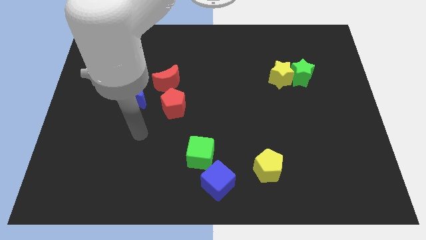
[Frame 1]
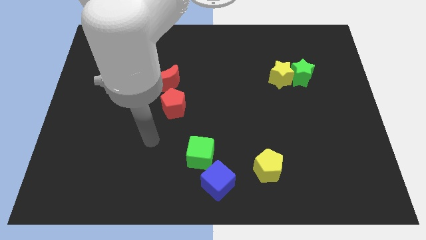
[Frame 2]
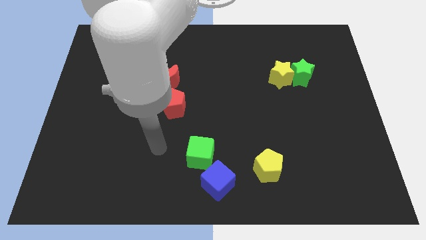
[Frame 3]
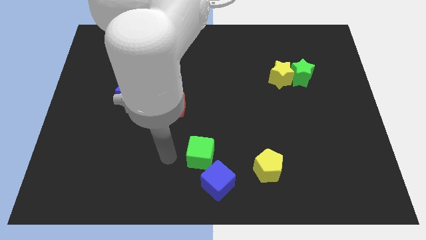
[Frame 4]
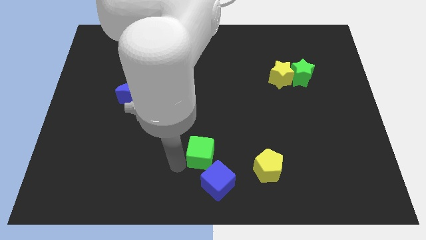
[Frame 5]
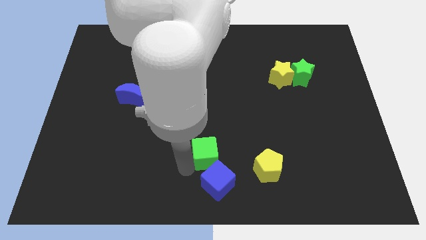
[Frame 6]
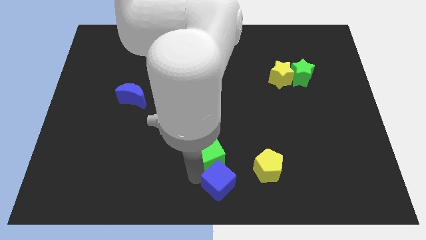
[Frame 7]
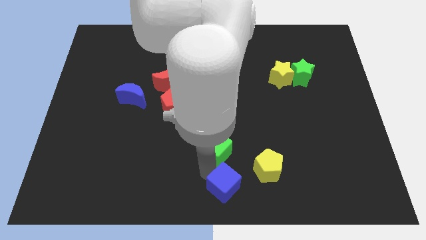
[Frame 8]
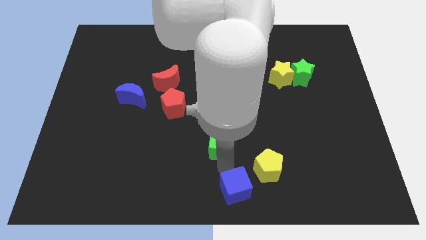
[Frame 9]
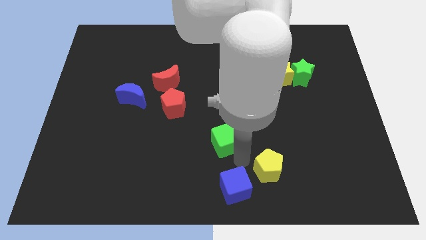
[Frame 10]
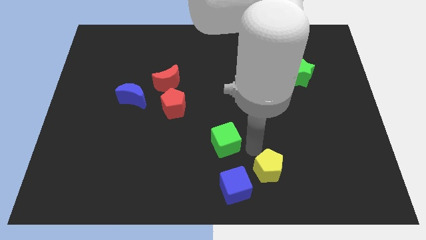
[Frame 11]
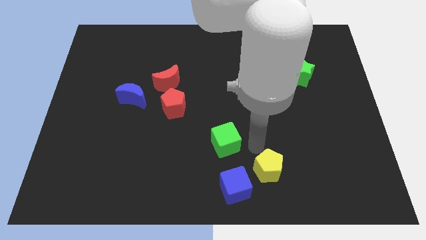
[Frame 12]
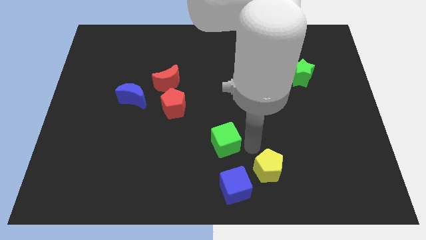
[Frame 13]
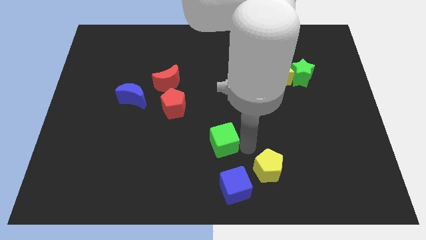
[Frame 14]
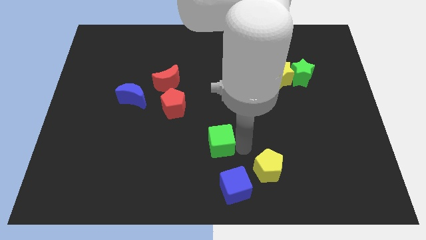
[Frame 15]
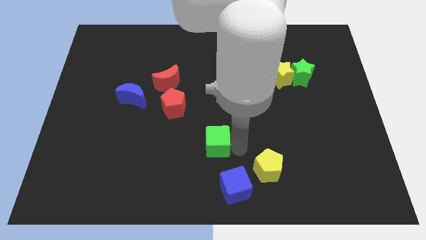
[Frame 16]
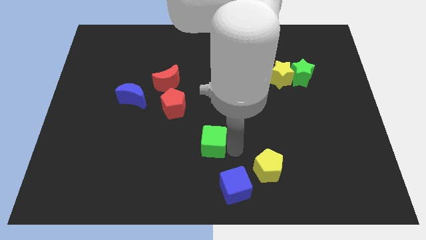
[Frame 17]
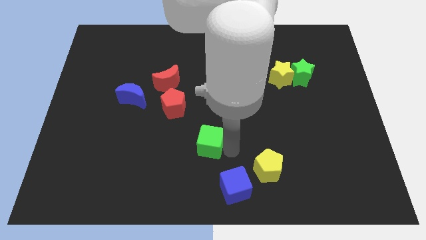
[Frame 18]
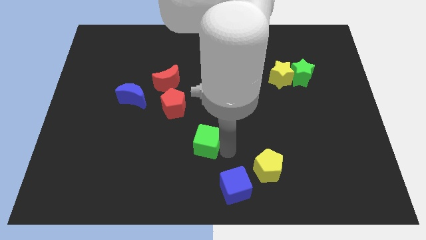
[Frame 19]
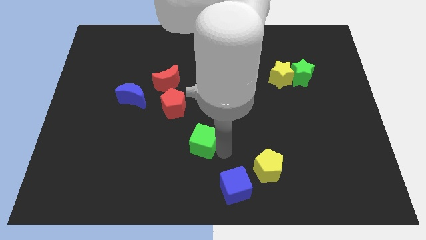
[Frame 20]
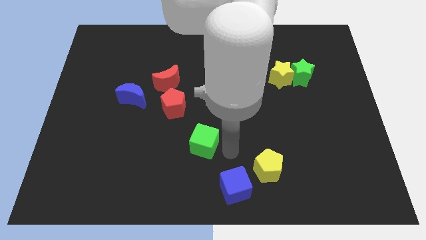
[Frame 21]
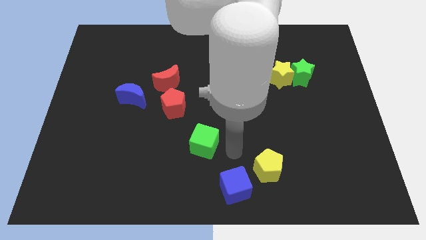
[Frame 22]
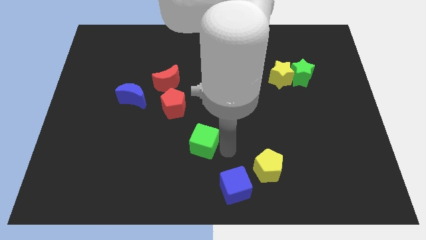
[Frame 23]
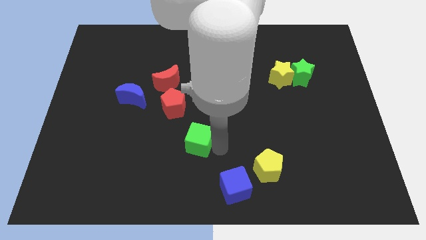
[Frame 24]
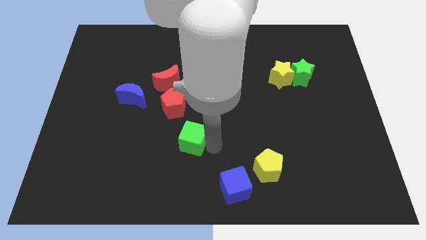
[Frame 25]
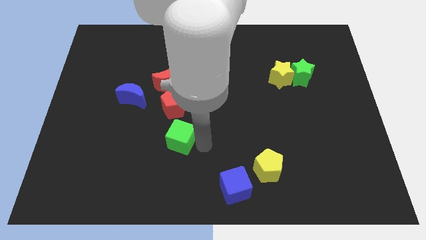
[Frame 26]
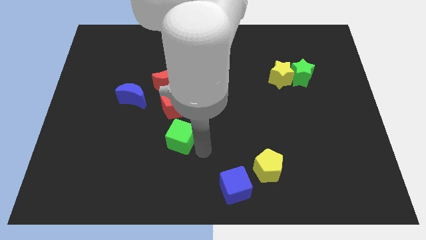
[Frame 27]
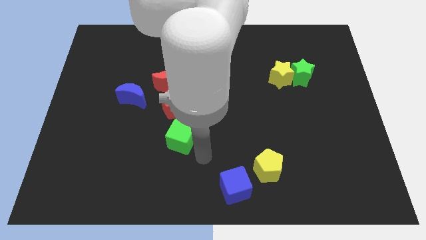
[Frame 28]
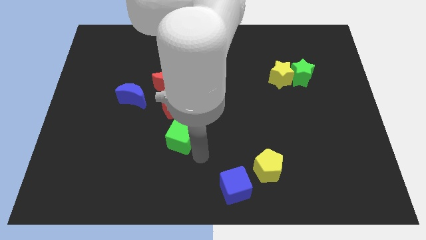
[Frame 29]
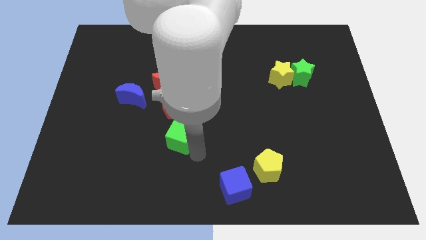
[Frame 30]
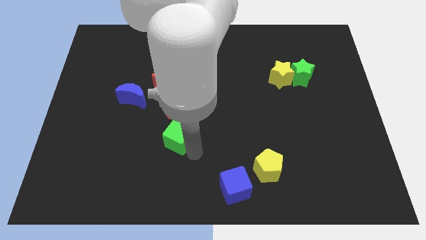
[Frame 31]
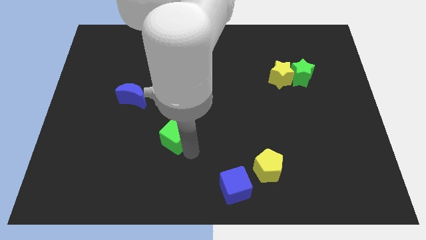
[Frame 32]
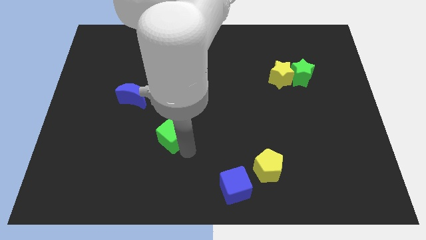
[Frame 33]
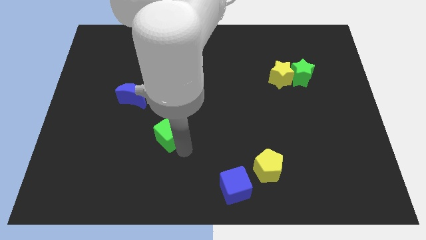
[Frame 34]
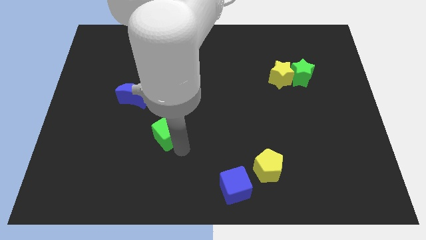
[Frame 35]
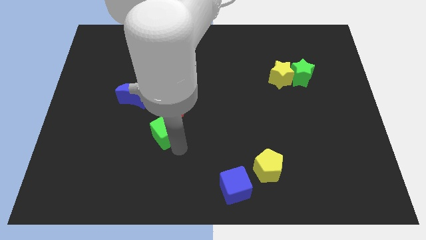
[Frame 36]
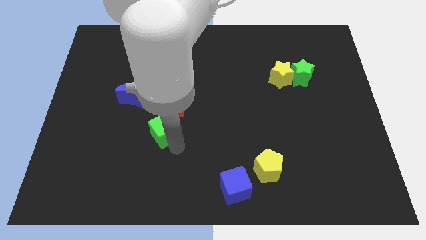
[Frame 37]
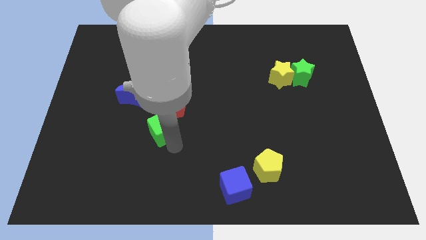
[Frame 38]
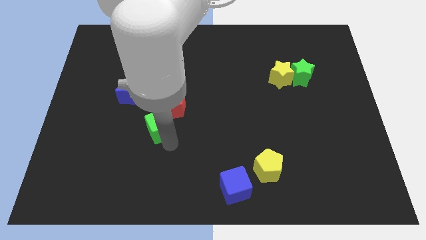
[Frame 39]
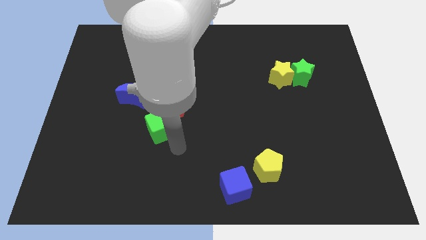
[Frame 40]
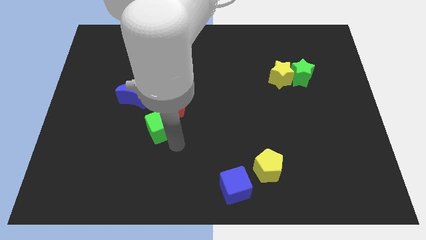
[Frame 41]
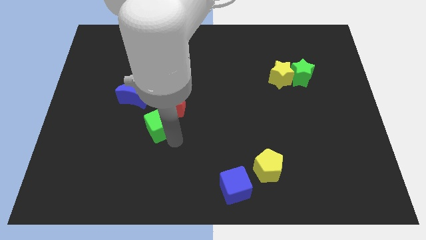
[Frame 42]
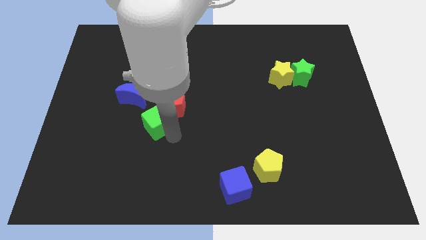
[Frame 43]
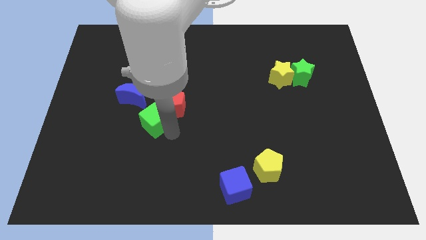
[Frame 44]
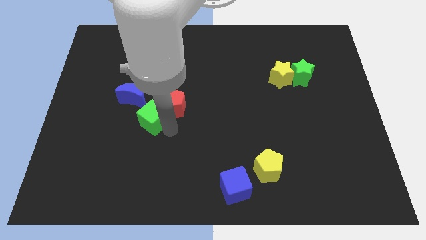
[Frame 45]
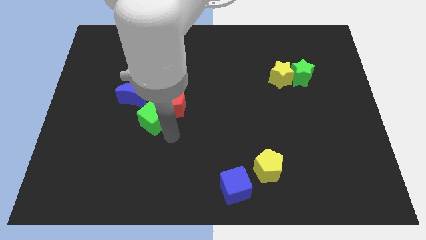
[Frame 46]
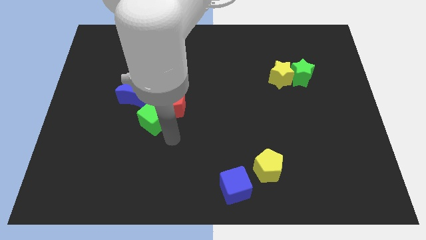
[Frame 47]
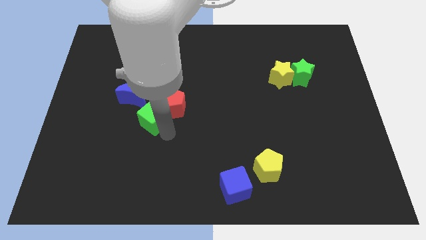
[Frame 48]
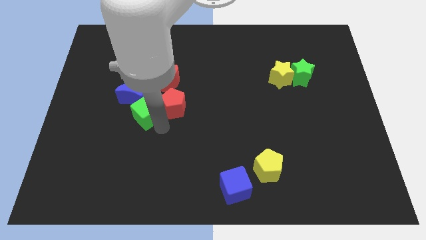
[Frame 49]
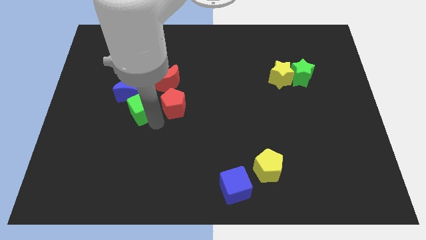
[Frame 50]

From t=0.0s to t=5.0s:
push the green cube to the blue moon

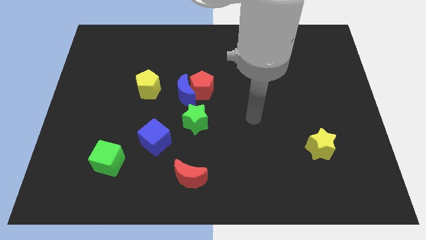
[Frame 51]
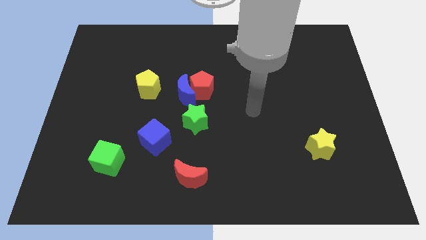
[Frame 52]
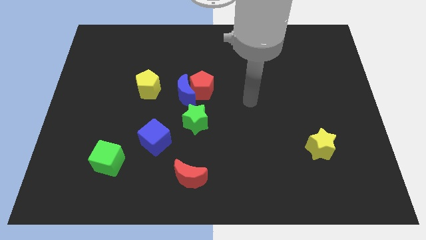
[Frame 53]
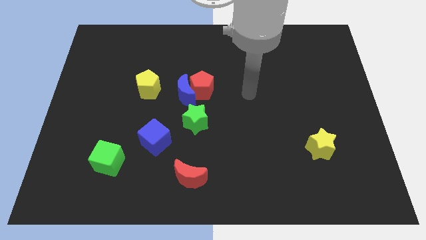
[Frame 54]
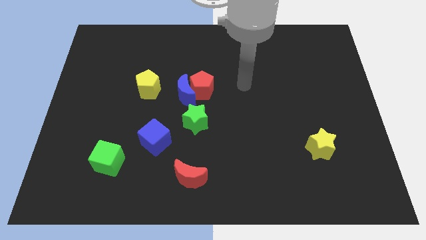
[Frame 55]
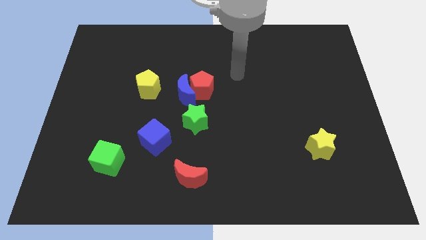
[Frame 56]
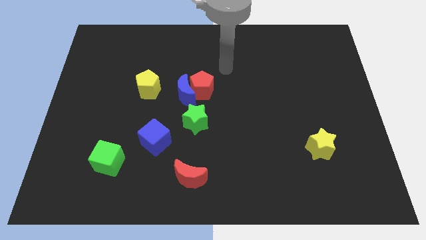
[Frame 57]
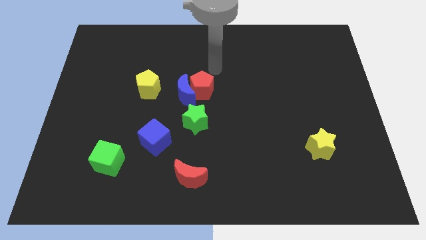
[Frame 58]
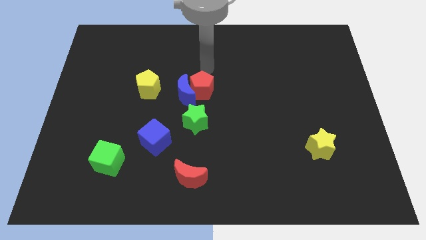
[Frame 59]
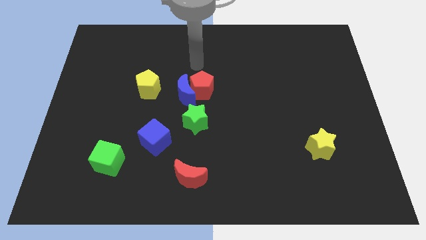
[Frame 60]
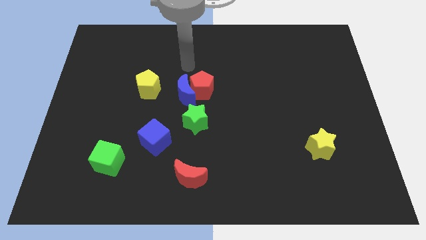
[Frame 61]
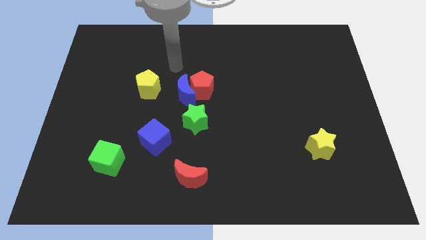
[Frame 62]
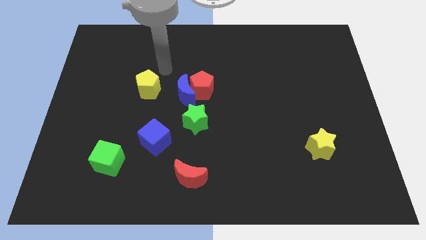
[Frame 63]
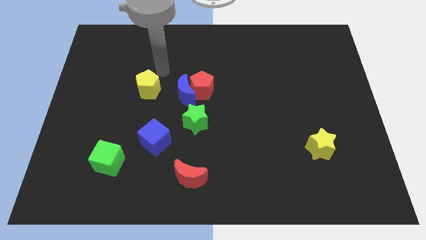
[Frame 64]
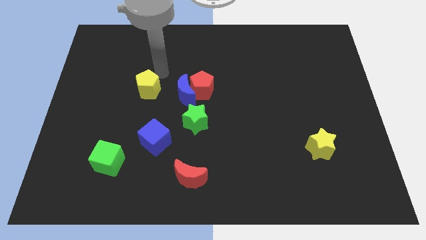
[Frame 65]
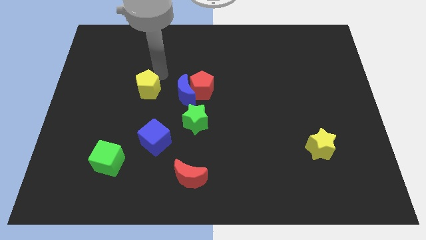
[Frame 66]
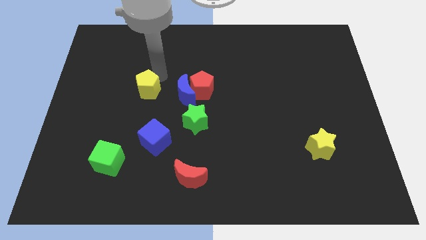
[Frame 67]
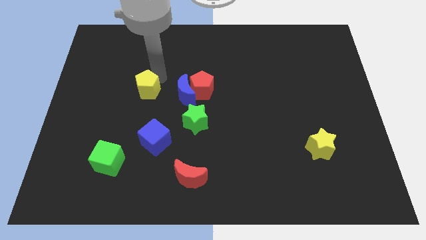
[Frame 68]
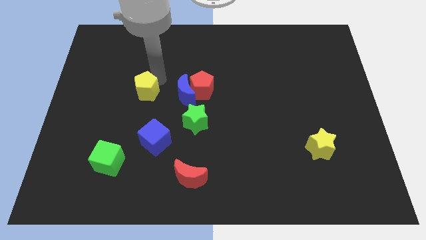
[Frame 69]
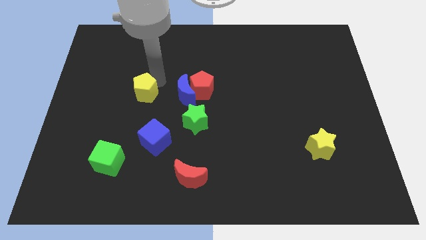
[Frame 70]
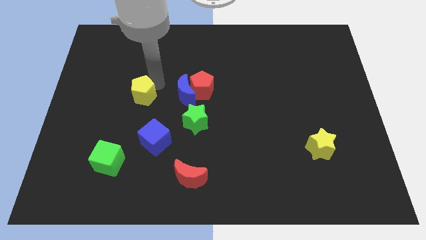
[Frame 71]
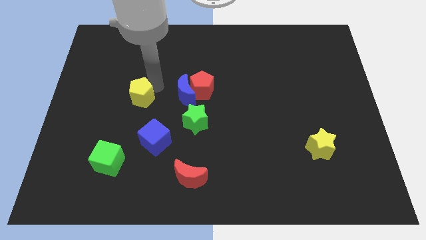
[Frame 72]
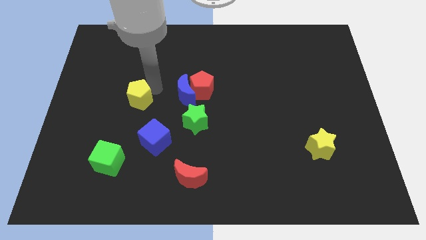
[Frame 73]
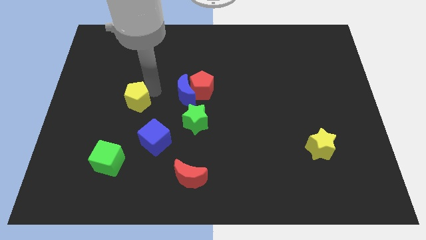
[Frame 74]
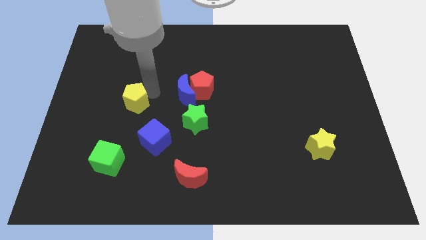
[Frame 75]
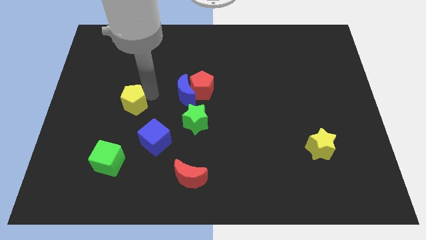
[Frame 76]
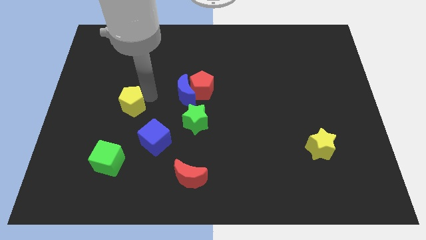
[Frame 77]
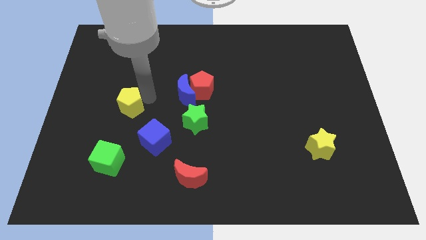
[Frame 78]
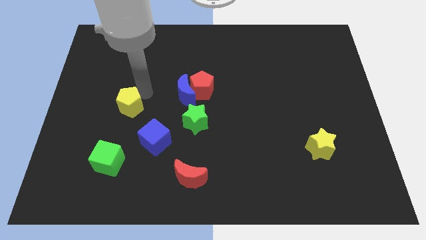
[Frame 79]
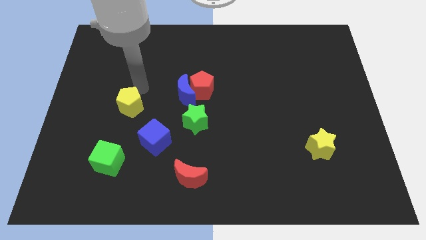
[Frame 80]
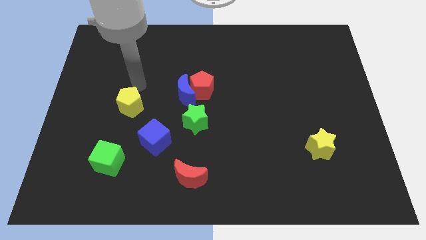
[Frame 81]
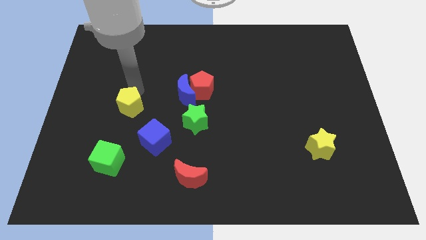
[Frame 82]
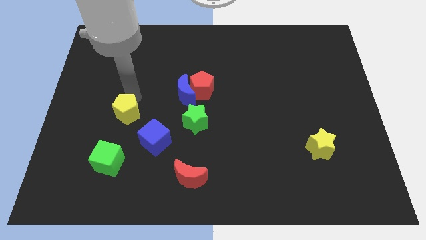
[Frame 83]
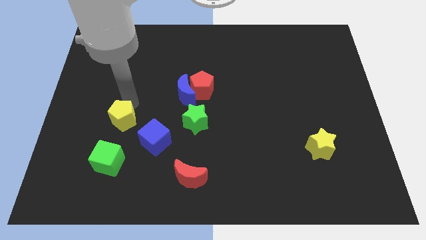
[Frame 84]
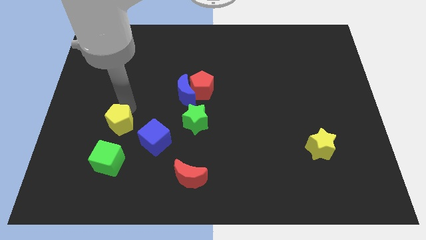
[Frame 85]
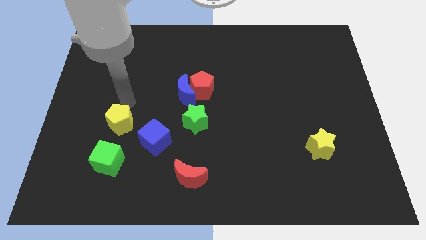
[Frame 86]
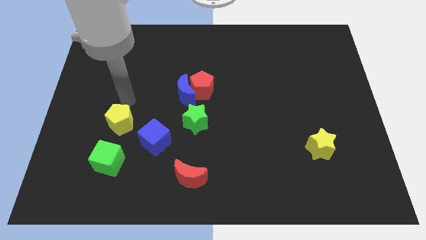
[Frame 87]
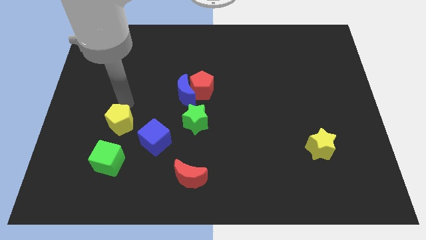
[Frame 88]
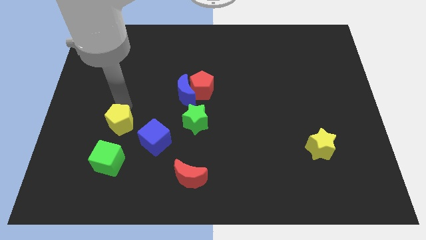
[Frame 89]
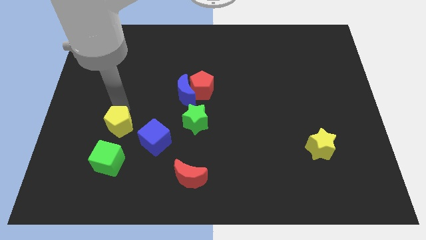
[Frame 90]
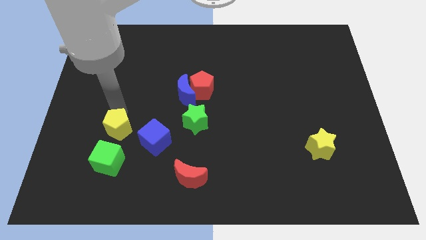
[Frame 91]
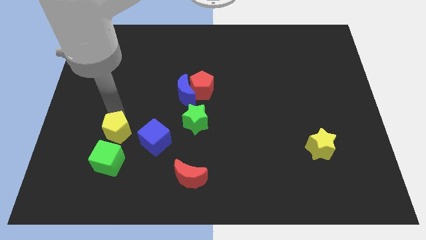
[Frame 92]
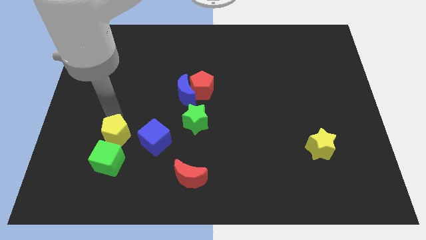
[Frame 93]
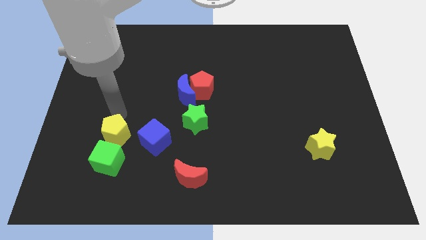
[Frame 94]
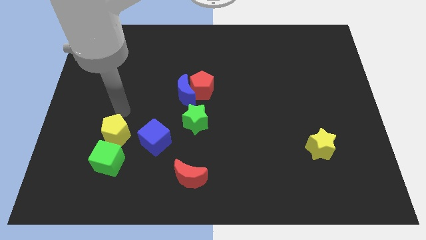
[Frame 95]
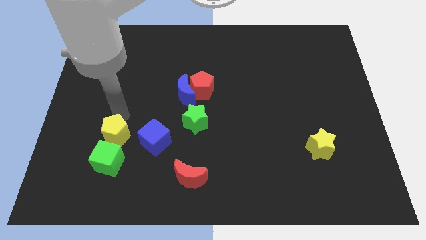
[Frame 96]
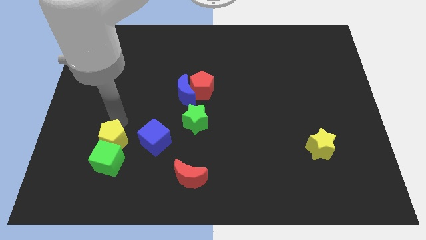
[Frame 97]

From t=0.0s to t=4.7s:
move the yellow pentagon to the green cube
